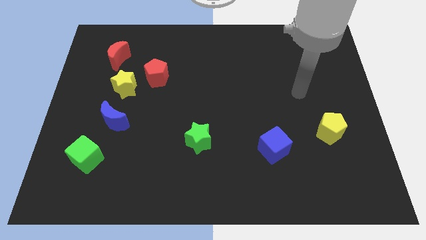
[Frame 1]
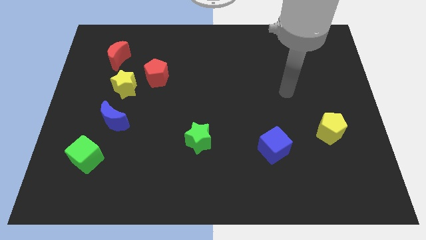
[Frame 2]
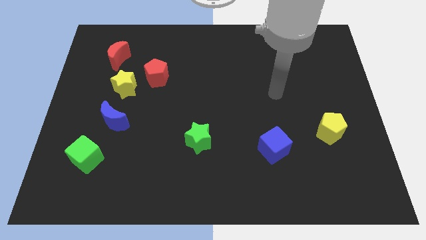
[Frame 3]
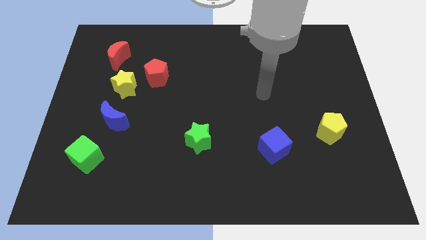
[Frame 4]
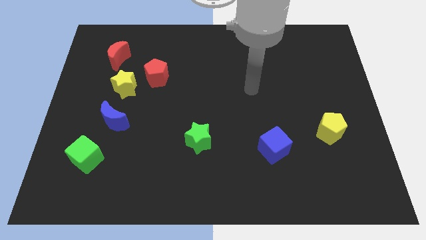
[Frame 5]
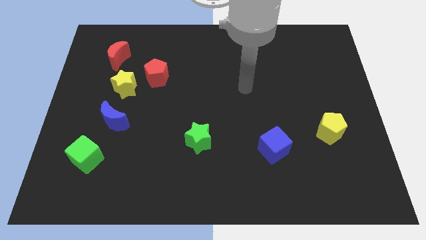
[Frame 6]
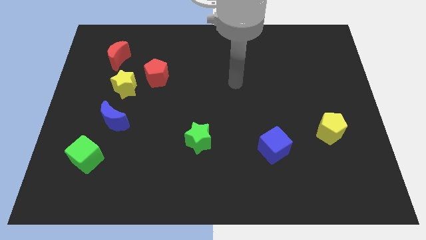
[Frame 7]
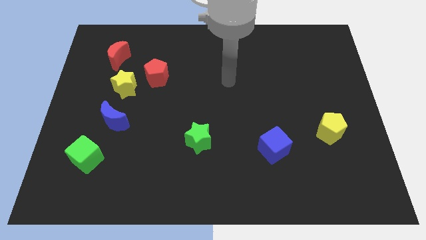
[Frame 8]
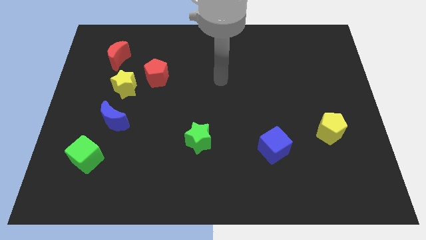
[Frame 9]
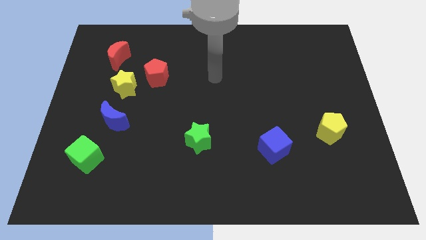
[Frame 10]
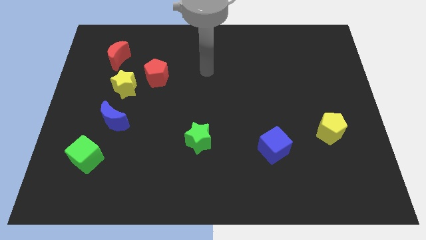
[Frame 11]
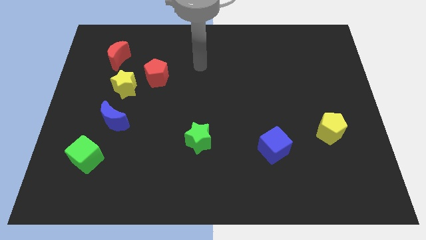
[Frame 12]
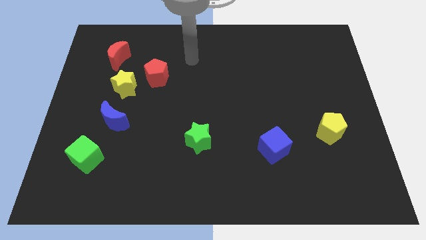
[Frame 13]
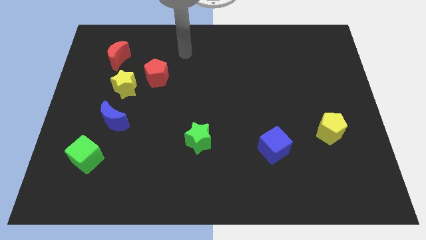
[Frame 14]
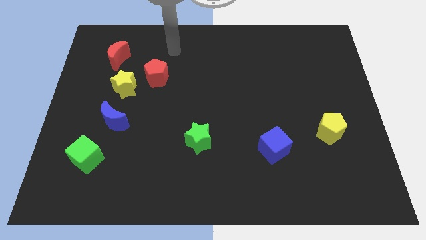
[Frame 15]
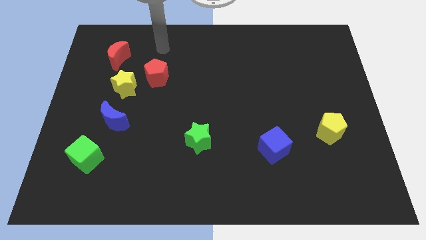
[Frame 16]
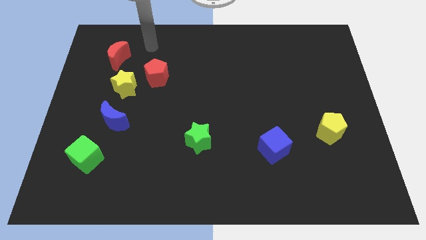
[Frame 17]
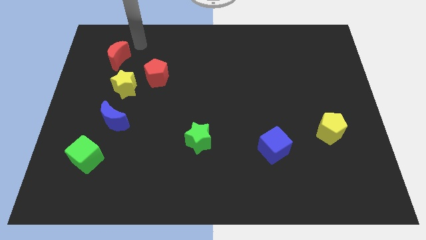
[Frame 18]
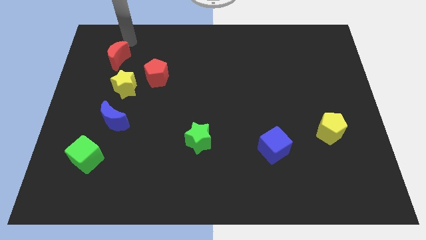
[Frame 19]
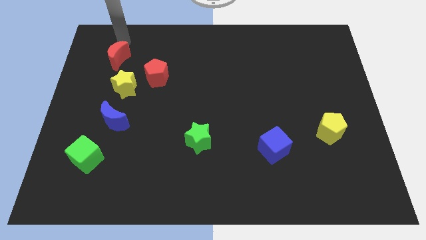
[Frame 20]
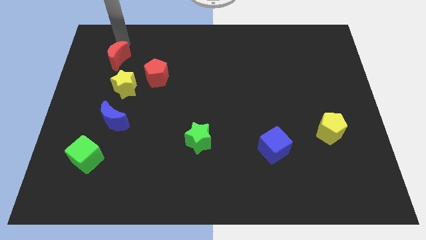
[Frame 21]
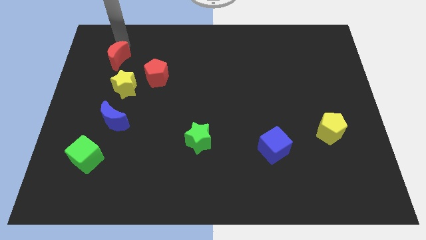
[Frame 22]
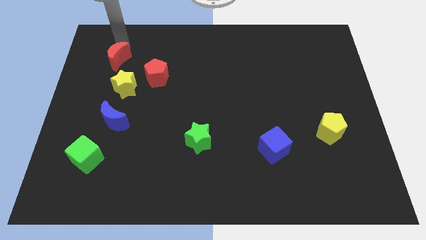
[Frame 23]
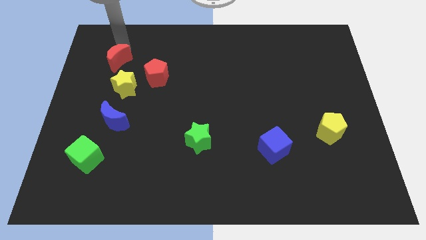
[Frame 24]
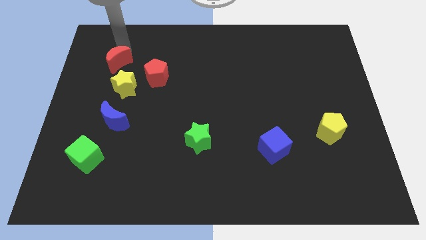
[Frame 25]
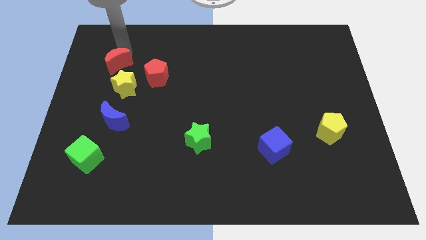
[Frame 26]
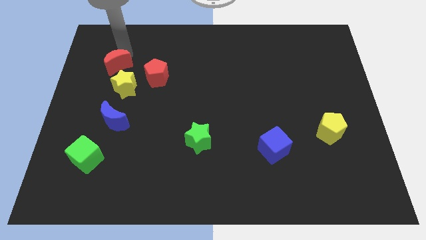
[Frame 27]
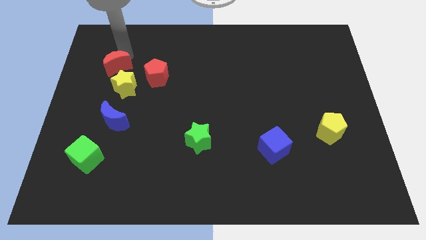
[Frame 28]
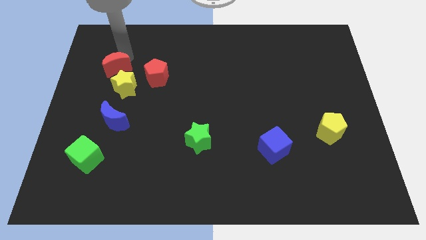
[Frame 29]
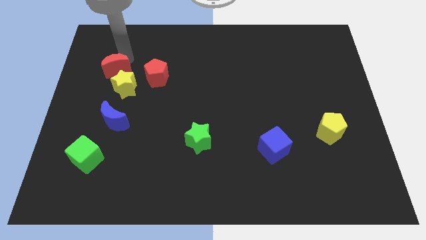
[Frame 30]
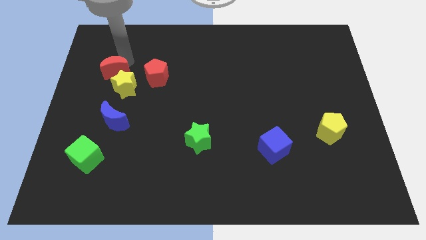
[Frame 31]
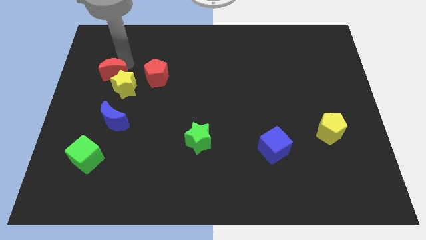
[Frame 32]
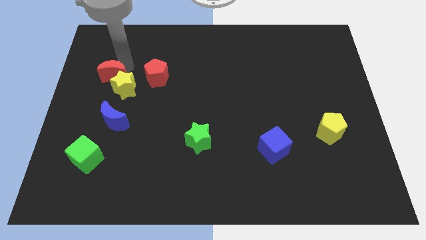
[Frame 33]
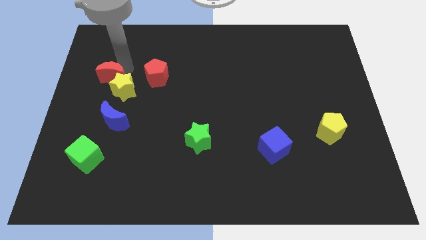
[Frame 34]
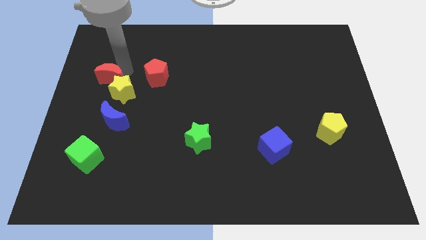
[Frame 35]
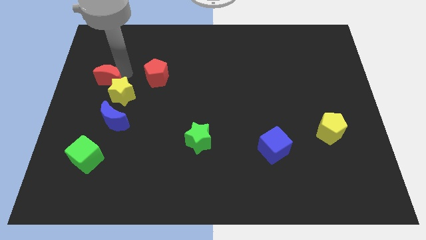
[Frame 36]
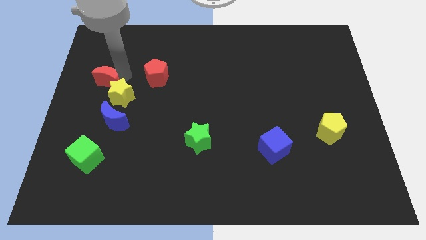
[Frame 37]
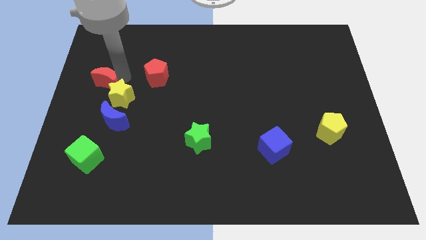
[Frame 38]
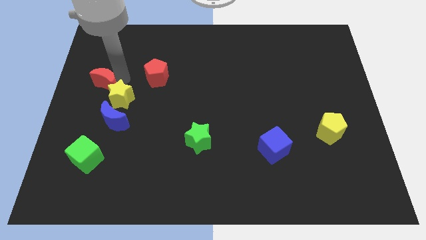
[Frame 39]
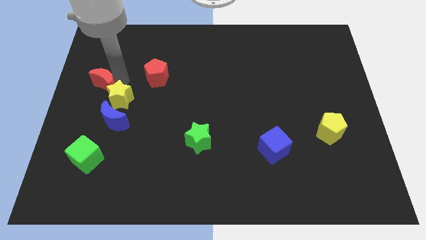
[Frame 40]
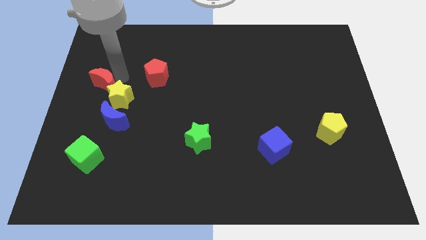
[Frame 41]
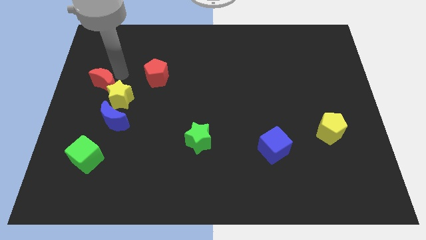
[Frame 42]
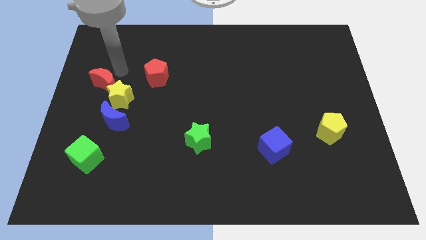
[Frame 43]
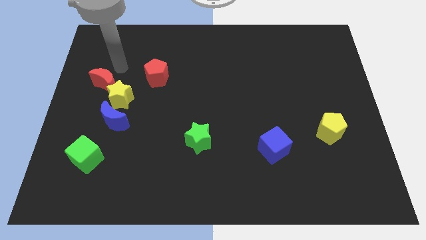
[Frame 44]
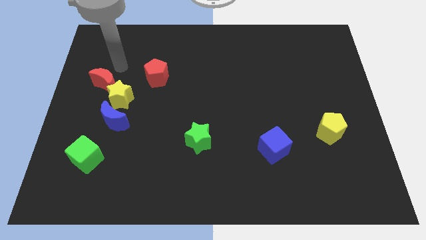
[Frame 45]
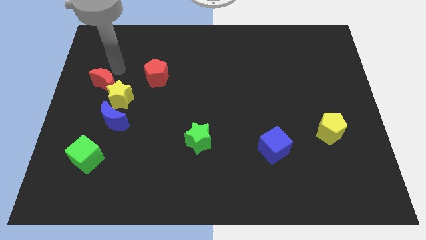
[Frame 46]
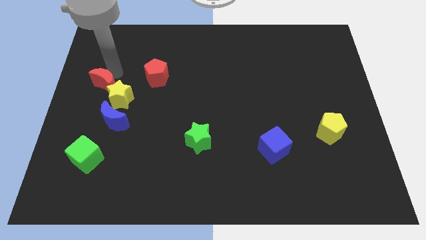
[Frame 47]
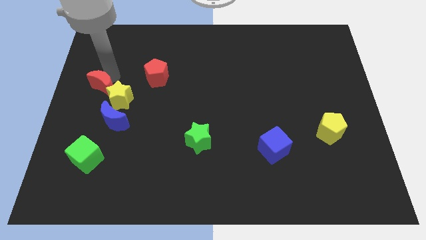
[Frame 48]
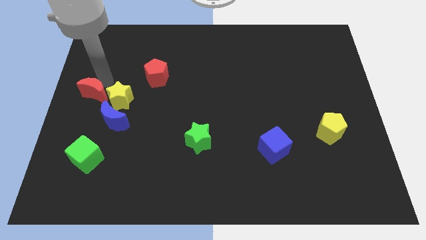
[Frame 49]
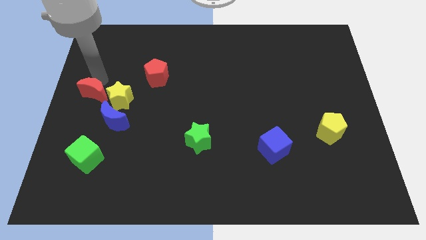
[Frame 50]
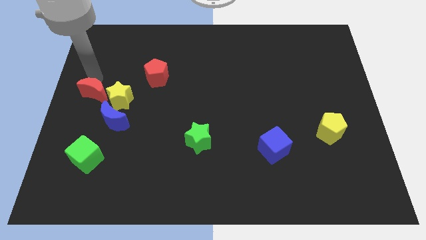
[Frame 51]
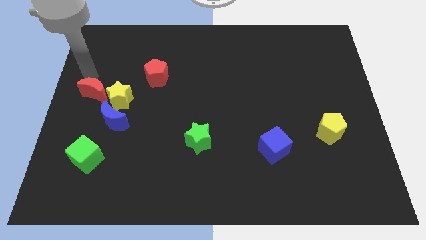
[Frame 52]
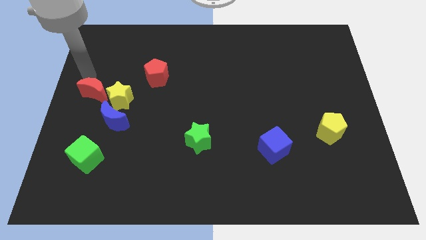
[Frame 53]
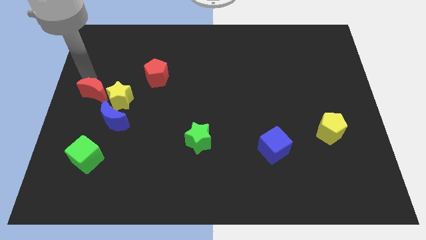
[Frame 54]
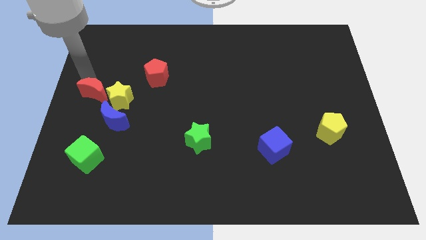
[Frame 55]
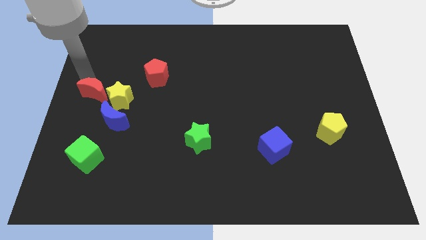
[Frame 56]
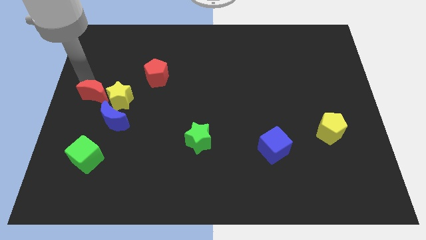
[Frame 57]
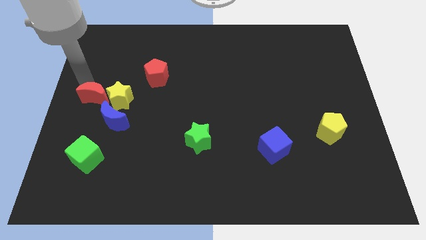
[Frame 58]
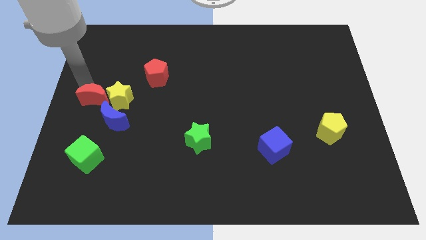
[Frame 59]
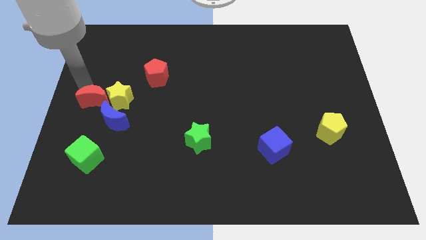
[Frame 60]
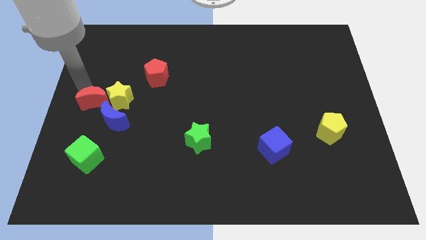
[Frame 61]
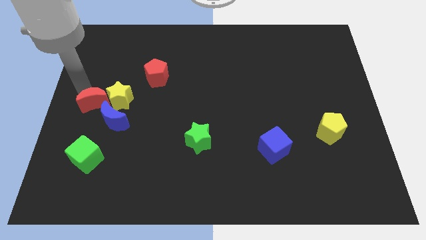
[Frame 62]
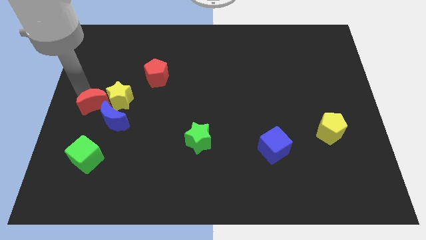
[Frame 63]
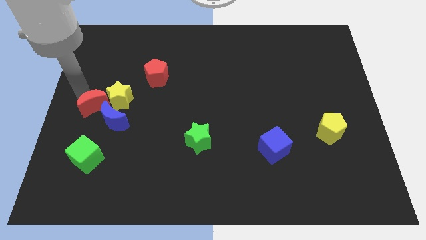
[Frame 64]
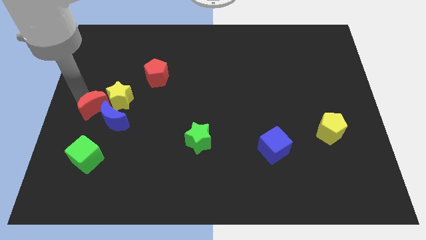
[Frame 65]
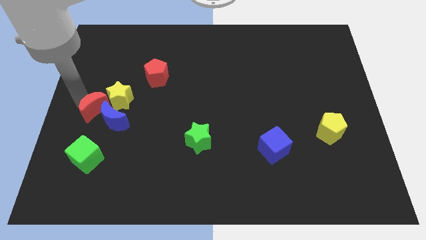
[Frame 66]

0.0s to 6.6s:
put the red moon to the blue moon
